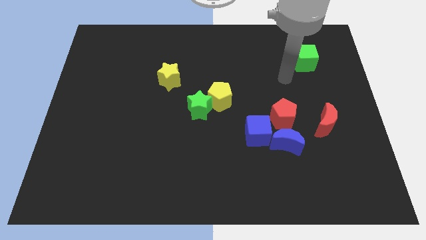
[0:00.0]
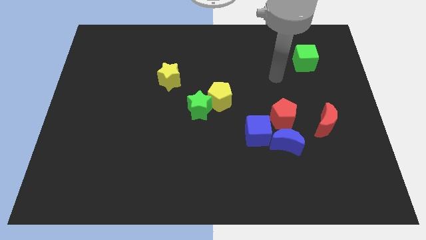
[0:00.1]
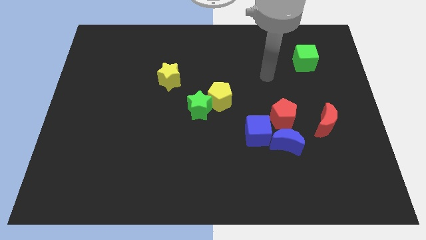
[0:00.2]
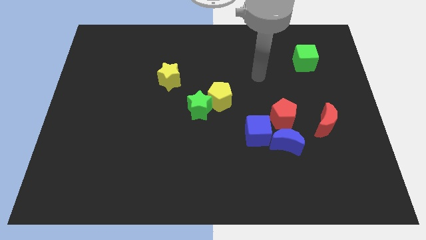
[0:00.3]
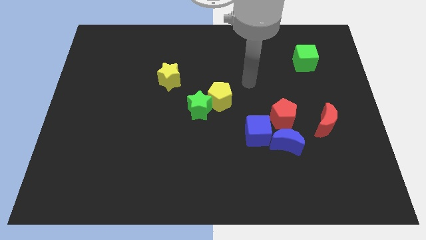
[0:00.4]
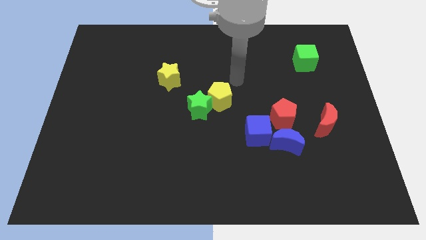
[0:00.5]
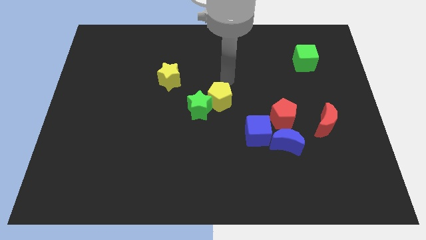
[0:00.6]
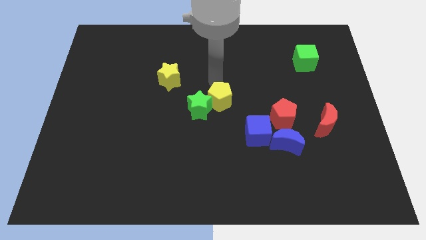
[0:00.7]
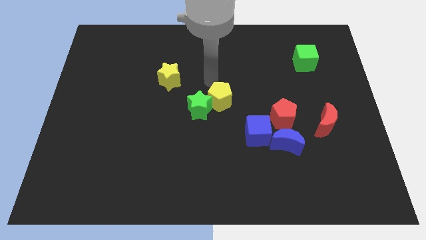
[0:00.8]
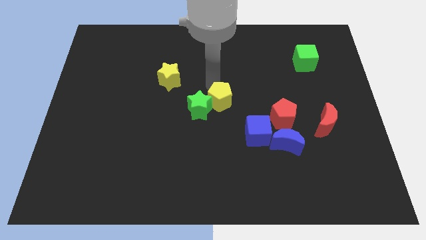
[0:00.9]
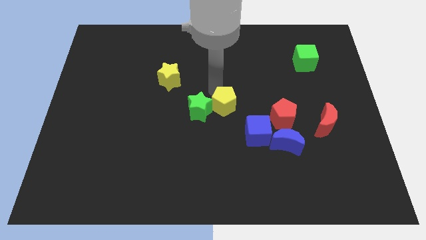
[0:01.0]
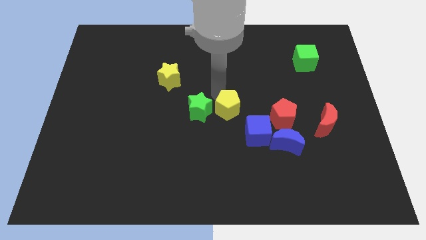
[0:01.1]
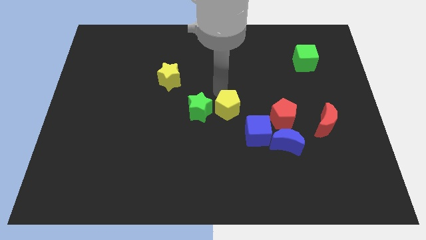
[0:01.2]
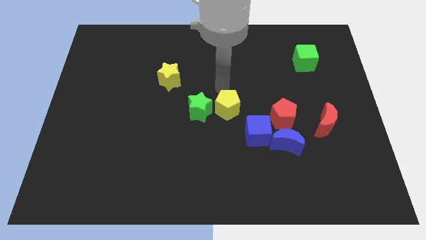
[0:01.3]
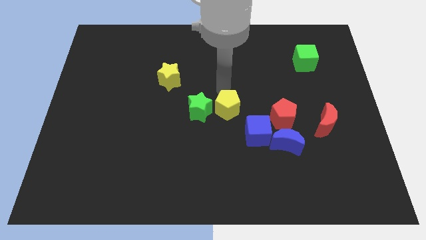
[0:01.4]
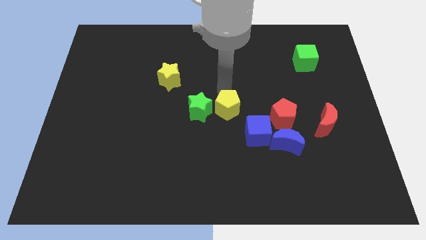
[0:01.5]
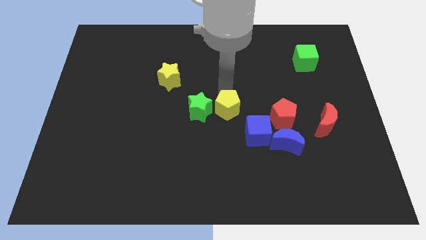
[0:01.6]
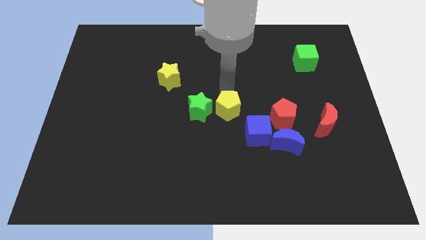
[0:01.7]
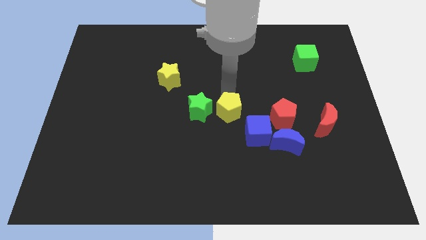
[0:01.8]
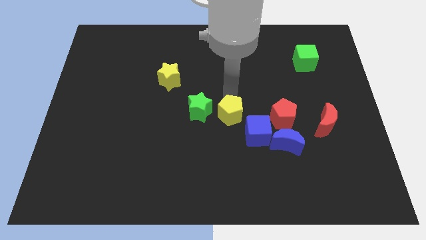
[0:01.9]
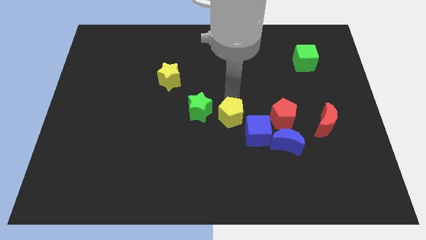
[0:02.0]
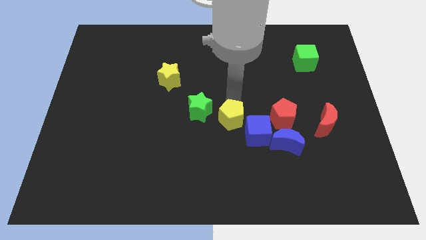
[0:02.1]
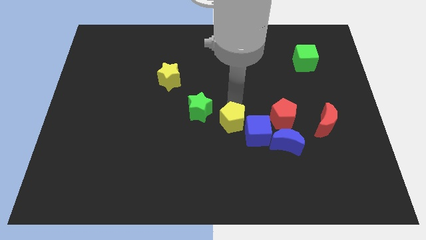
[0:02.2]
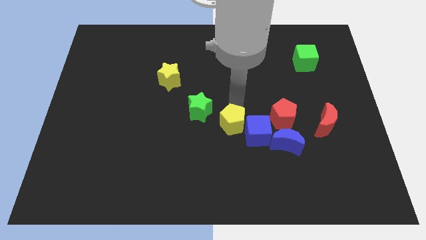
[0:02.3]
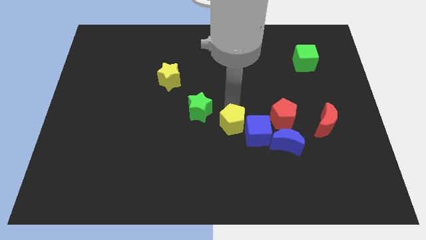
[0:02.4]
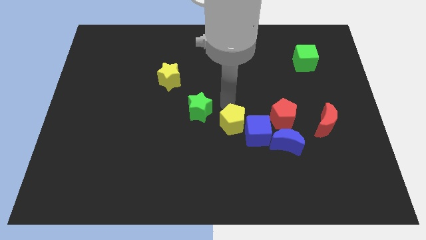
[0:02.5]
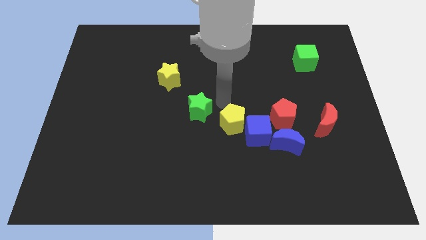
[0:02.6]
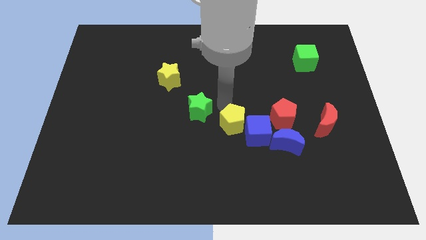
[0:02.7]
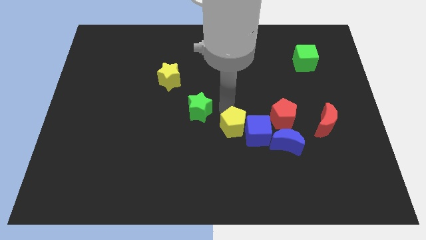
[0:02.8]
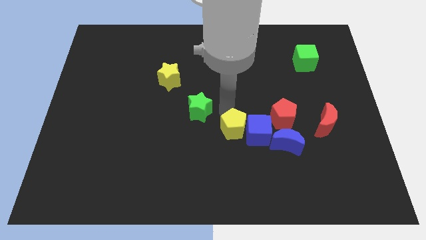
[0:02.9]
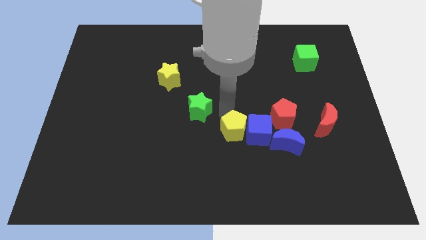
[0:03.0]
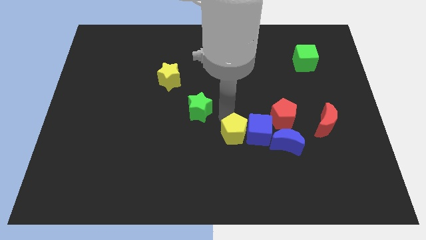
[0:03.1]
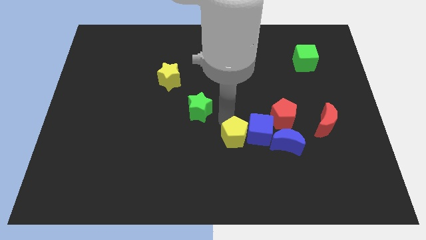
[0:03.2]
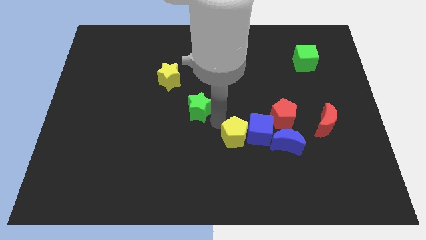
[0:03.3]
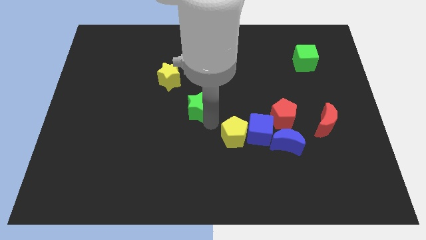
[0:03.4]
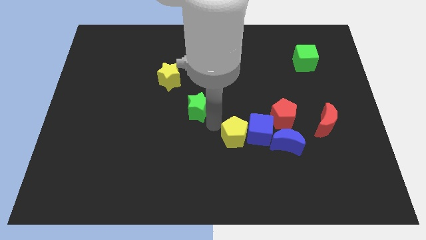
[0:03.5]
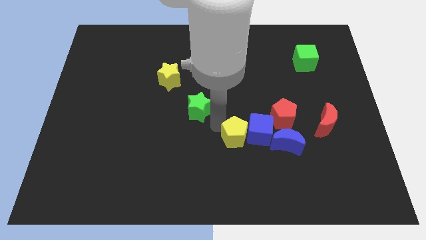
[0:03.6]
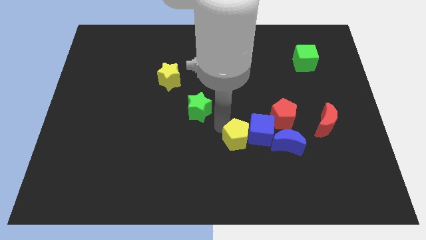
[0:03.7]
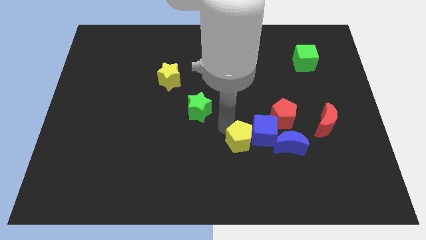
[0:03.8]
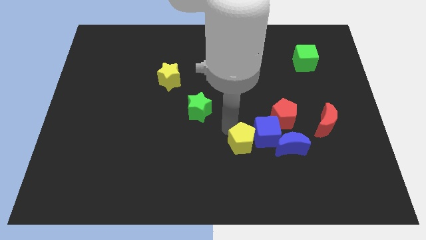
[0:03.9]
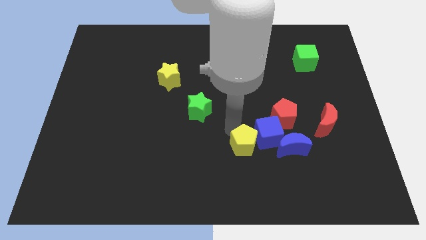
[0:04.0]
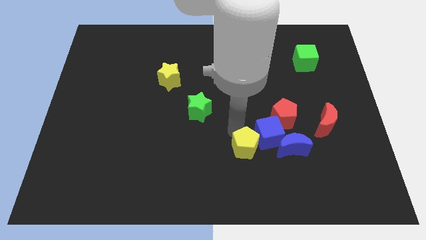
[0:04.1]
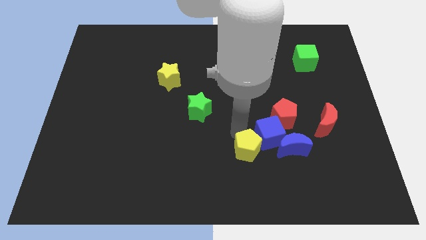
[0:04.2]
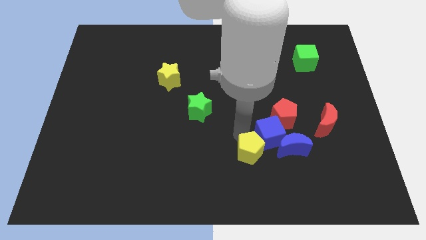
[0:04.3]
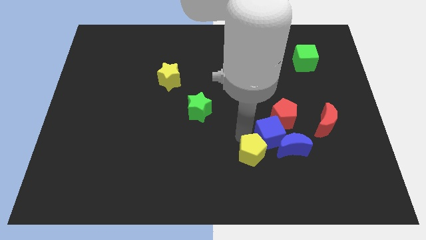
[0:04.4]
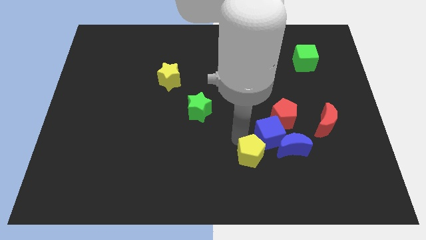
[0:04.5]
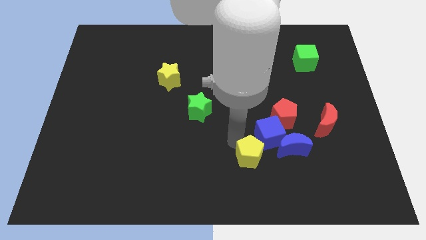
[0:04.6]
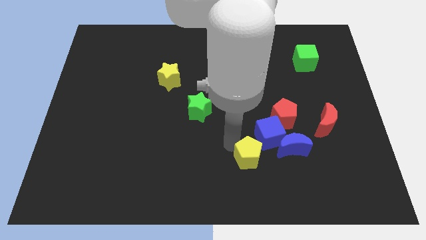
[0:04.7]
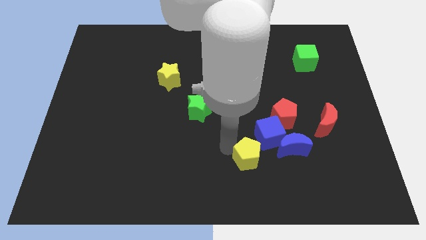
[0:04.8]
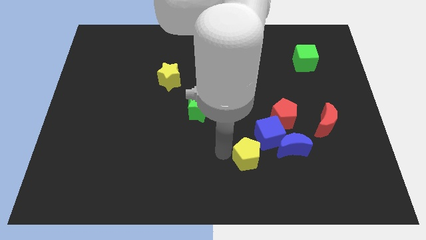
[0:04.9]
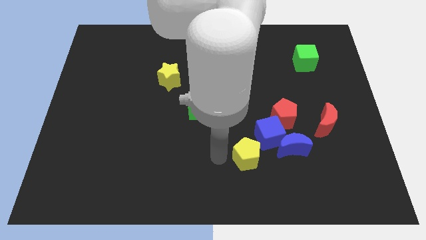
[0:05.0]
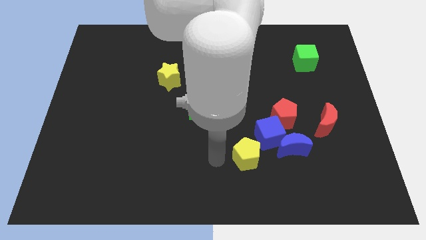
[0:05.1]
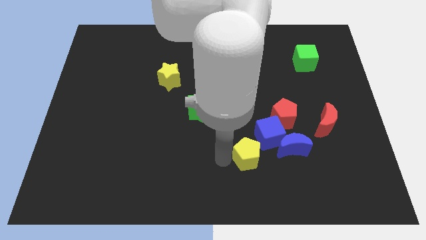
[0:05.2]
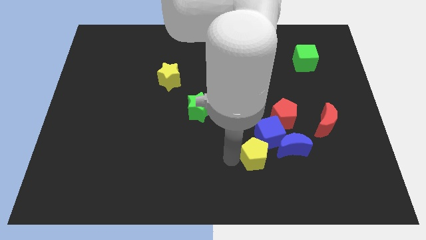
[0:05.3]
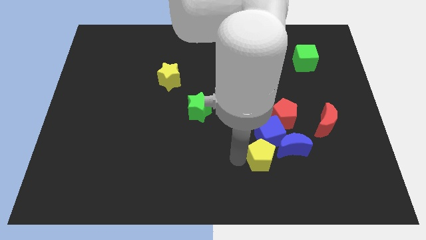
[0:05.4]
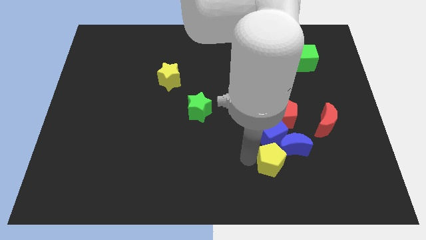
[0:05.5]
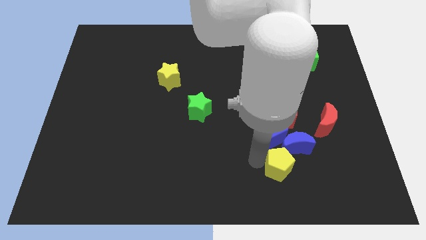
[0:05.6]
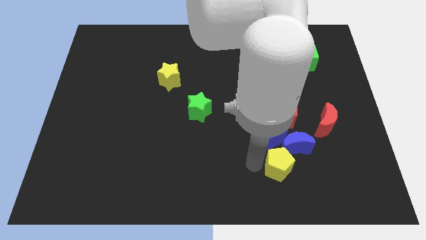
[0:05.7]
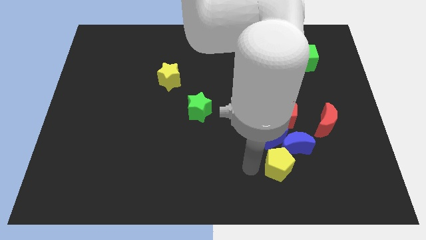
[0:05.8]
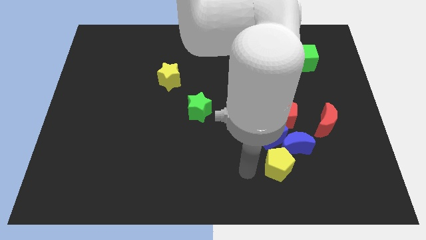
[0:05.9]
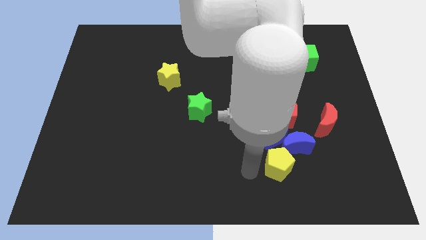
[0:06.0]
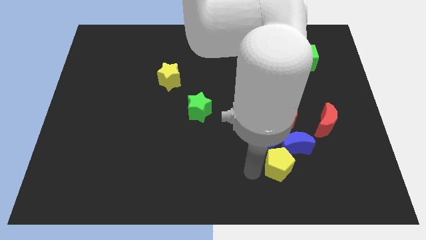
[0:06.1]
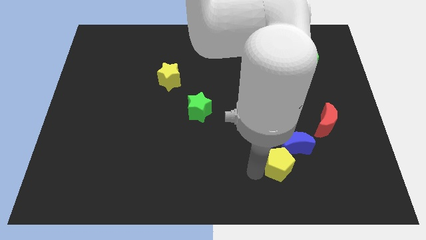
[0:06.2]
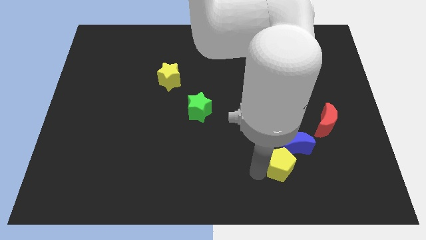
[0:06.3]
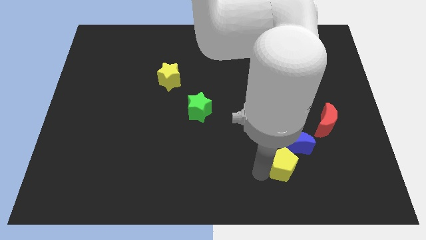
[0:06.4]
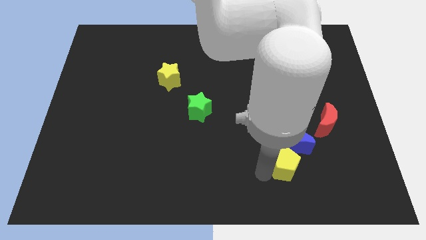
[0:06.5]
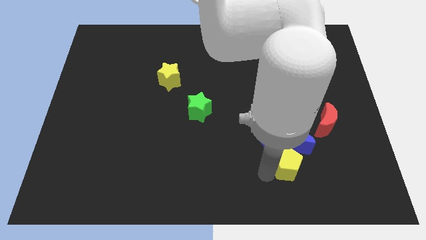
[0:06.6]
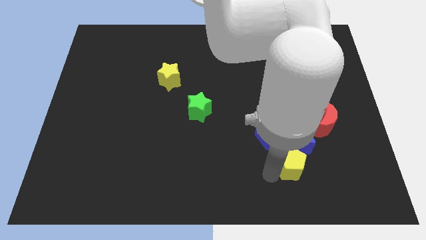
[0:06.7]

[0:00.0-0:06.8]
put the yellow pentagon diagonally down and to the right of the blue moon

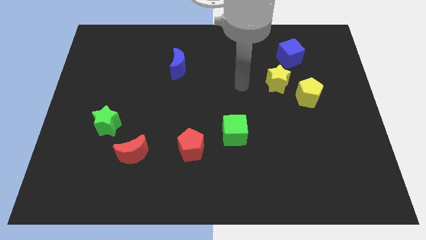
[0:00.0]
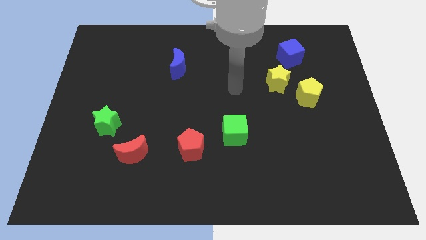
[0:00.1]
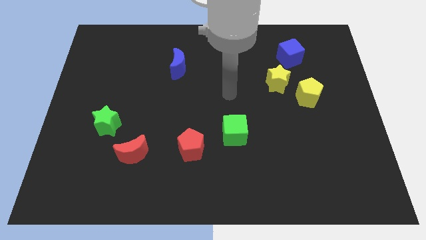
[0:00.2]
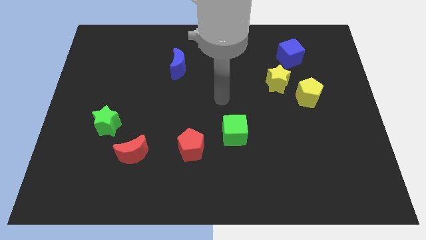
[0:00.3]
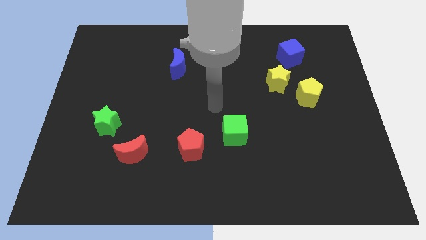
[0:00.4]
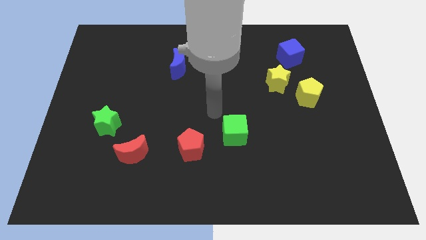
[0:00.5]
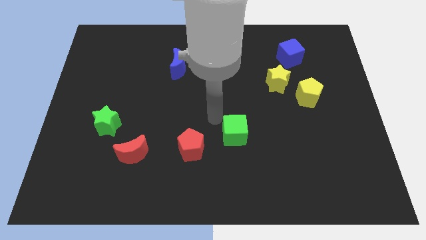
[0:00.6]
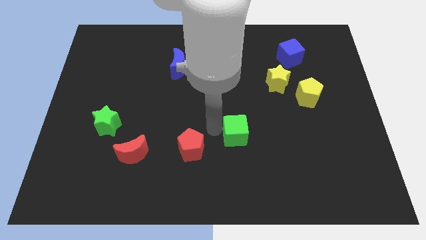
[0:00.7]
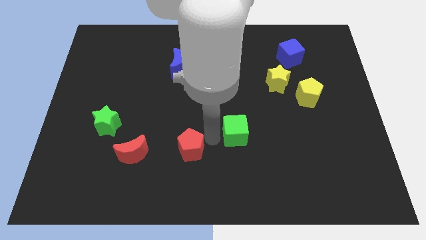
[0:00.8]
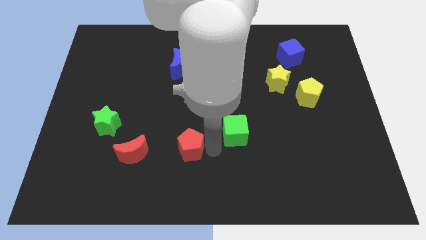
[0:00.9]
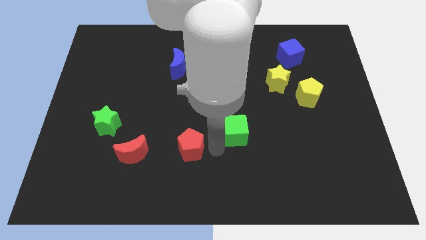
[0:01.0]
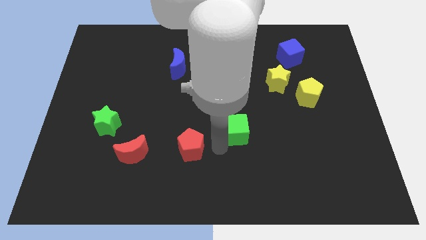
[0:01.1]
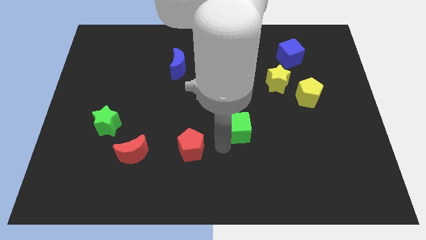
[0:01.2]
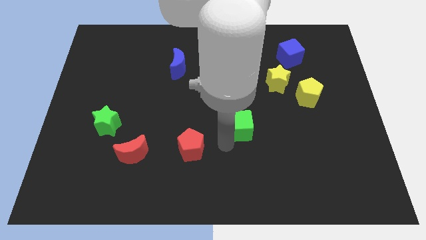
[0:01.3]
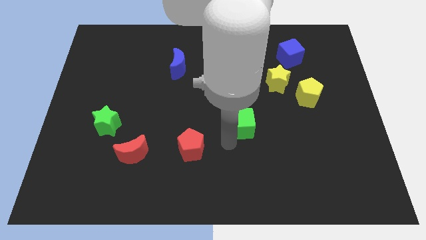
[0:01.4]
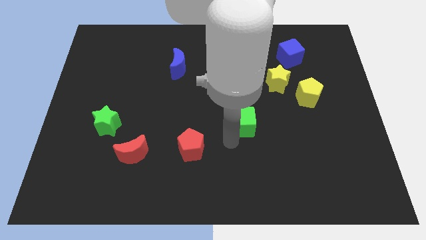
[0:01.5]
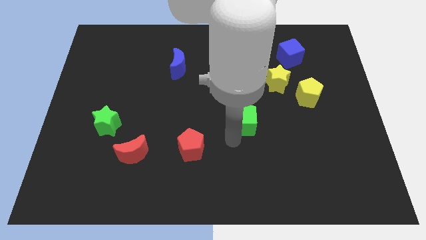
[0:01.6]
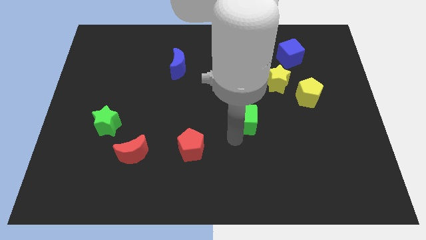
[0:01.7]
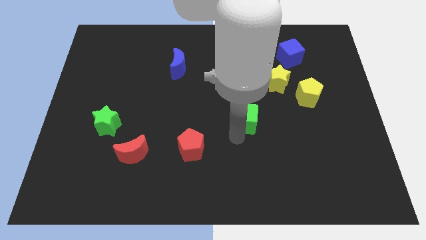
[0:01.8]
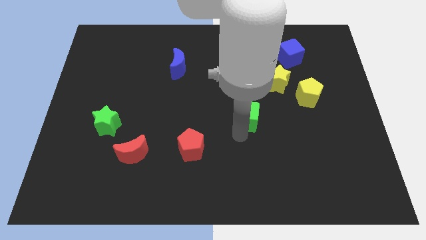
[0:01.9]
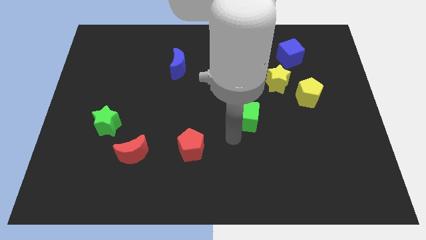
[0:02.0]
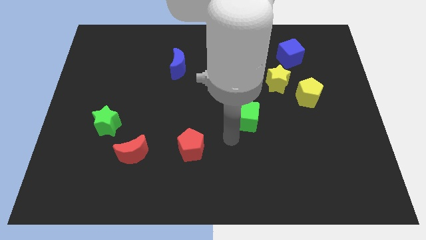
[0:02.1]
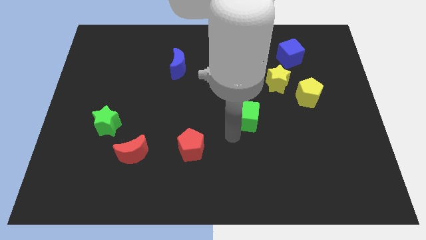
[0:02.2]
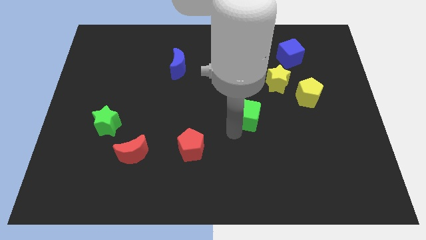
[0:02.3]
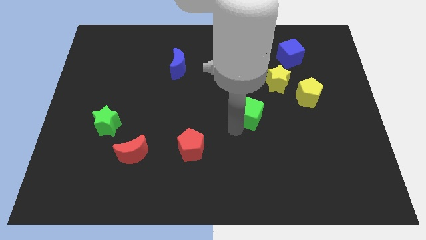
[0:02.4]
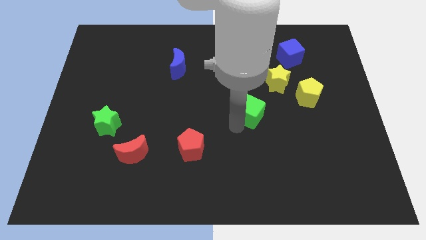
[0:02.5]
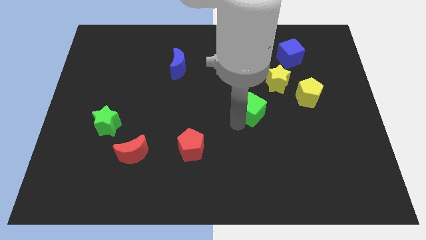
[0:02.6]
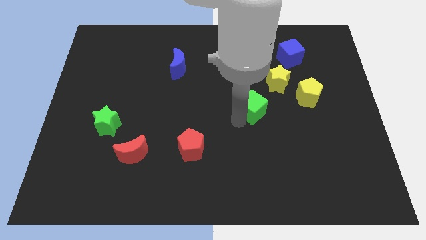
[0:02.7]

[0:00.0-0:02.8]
push the green cube to the left side of the yellow pentagon
